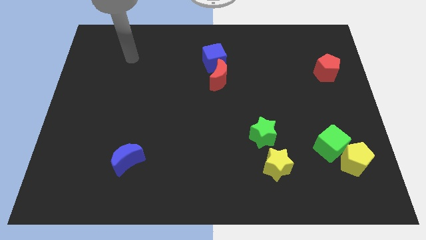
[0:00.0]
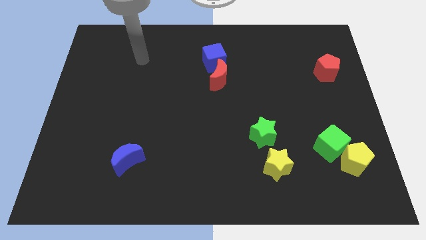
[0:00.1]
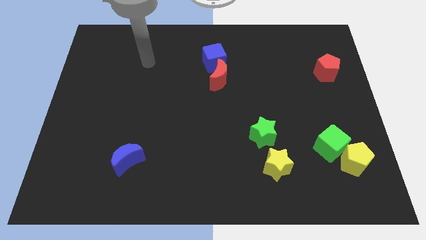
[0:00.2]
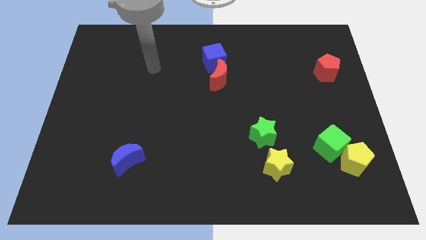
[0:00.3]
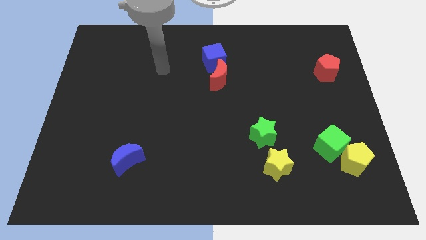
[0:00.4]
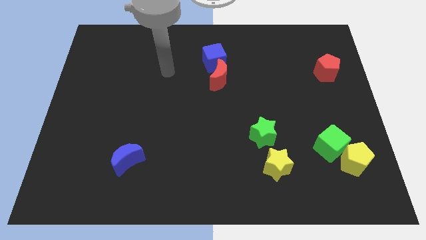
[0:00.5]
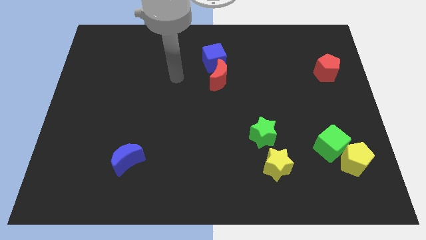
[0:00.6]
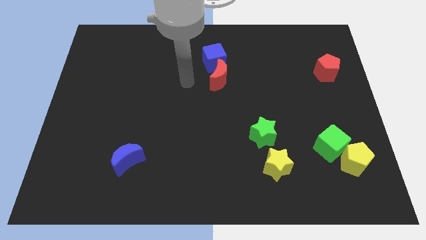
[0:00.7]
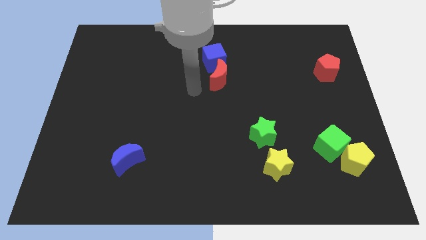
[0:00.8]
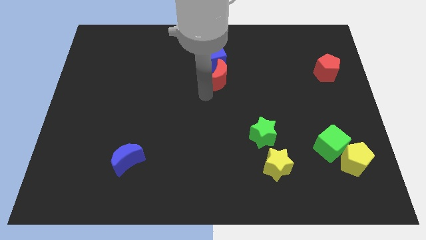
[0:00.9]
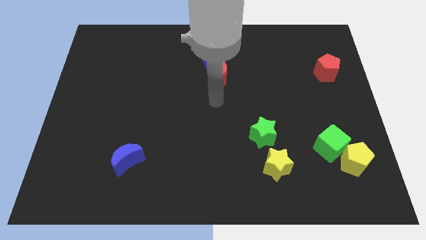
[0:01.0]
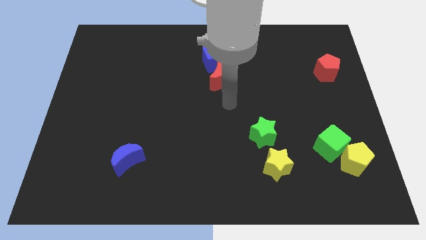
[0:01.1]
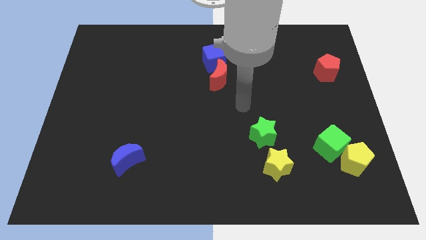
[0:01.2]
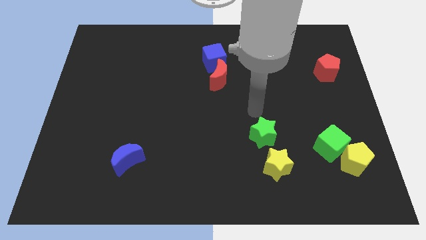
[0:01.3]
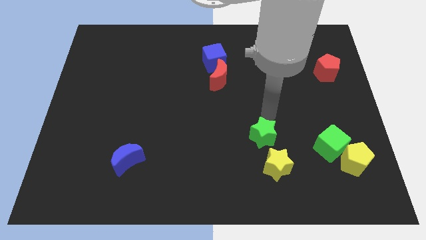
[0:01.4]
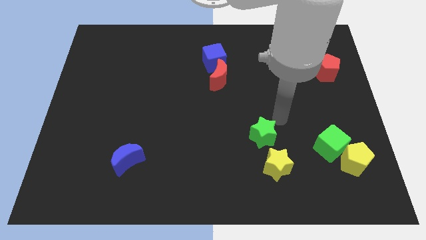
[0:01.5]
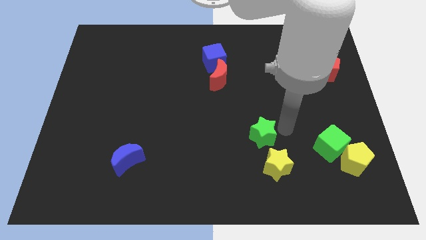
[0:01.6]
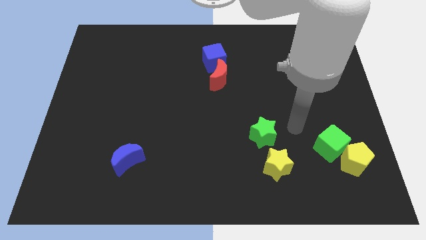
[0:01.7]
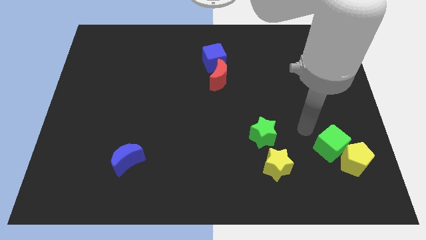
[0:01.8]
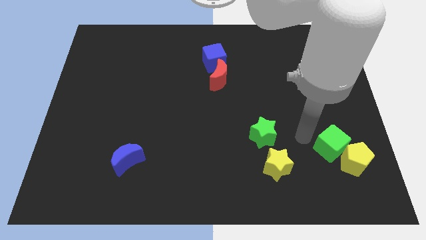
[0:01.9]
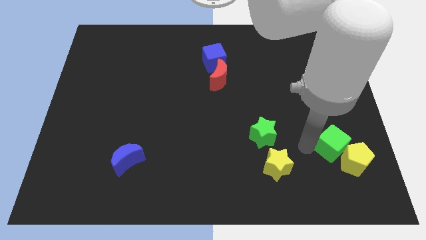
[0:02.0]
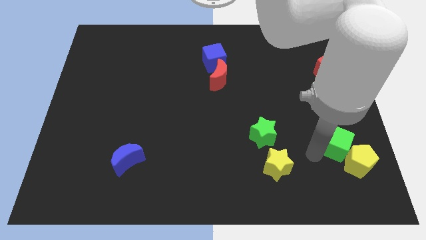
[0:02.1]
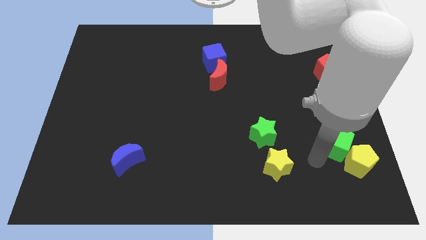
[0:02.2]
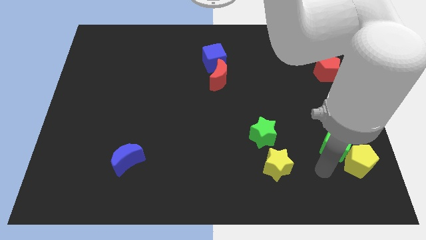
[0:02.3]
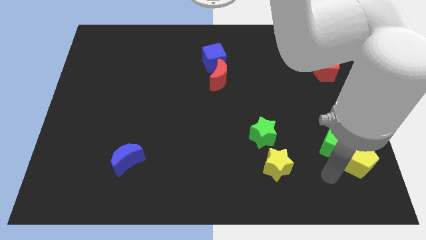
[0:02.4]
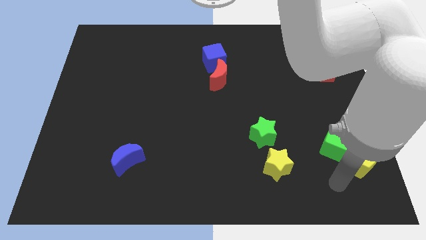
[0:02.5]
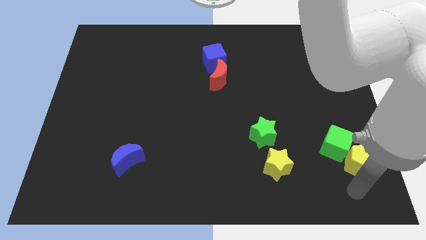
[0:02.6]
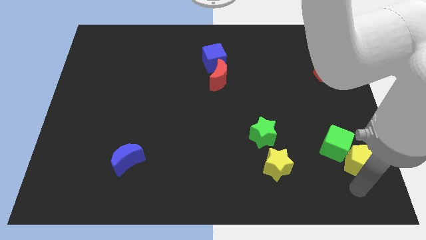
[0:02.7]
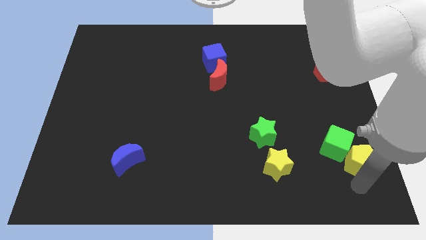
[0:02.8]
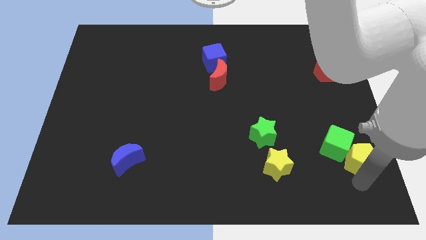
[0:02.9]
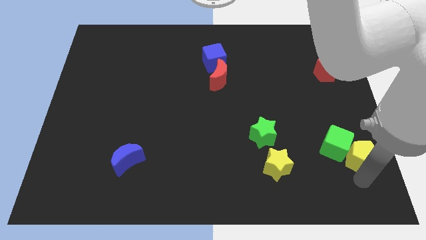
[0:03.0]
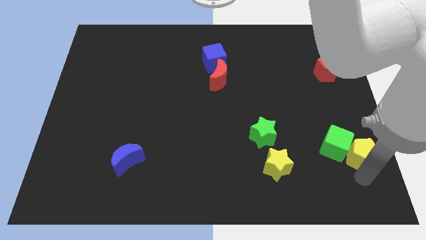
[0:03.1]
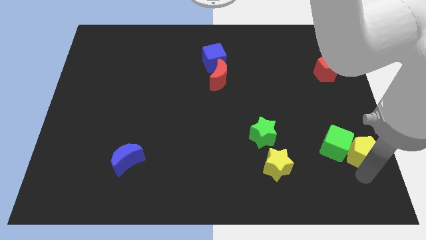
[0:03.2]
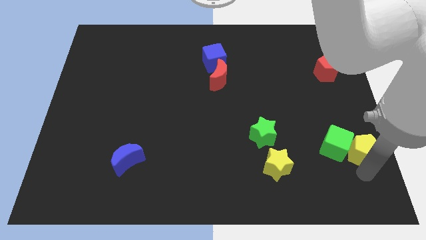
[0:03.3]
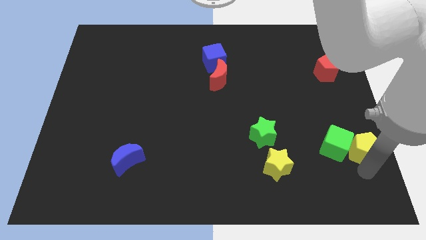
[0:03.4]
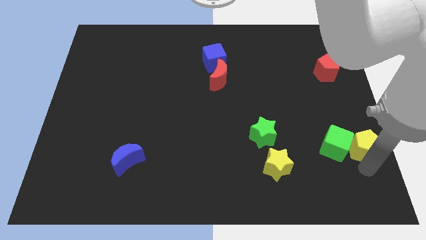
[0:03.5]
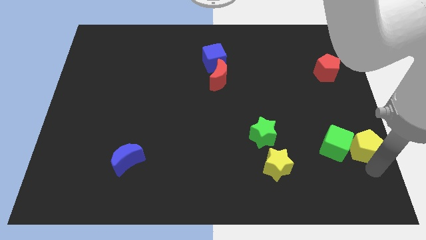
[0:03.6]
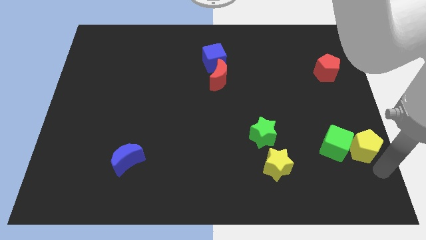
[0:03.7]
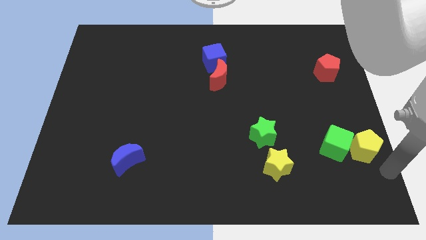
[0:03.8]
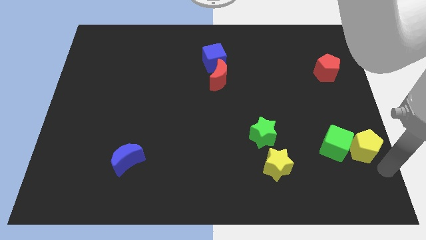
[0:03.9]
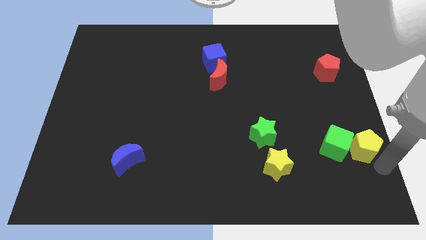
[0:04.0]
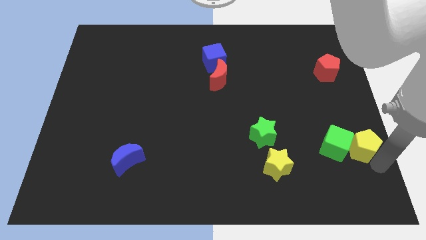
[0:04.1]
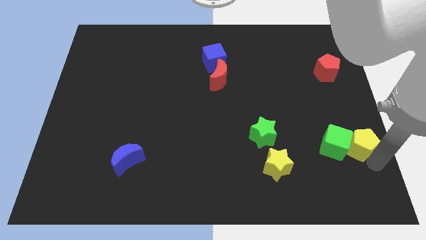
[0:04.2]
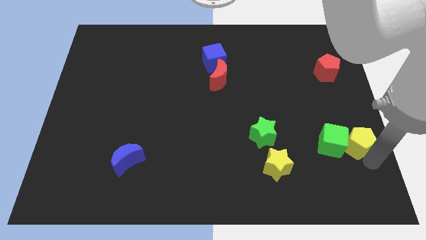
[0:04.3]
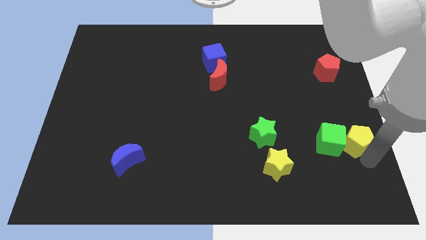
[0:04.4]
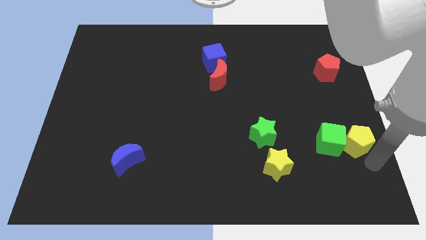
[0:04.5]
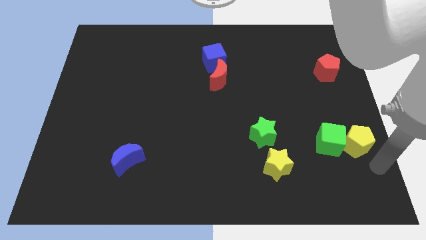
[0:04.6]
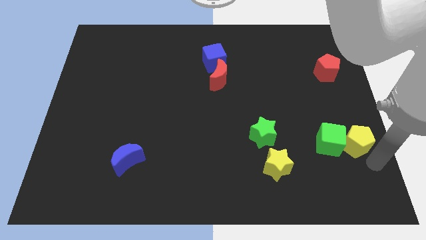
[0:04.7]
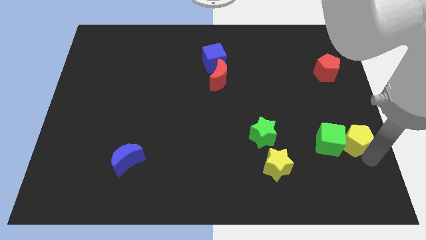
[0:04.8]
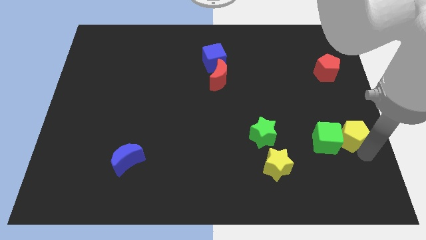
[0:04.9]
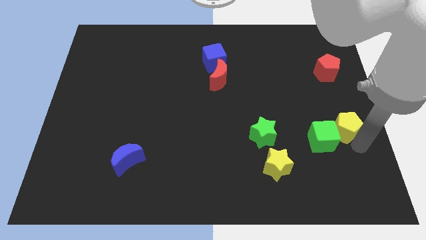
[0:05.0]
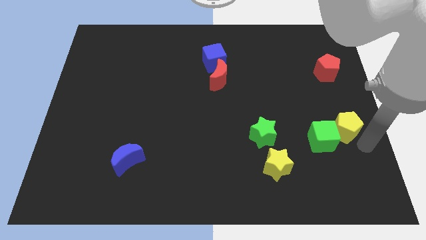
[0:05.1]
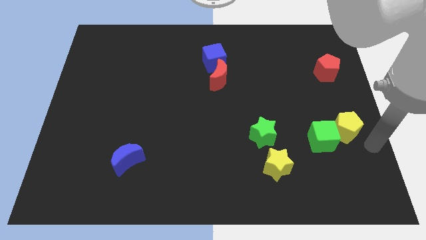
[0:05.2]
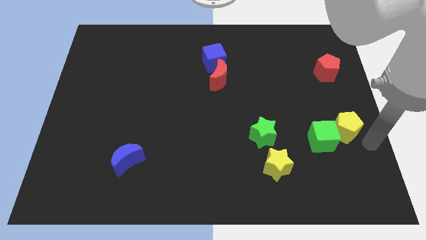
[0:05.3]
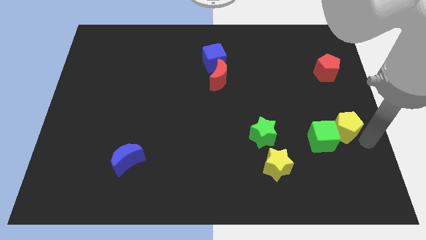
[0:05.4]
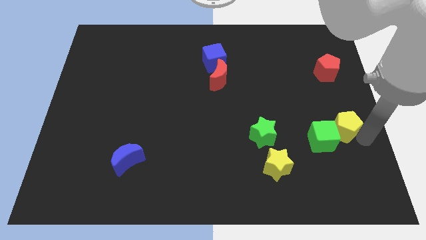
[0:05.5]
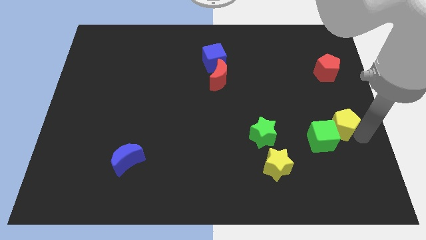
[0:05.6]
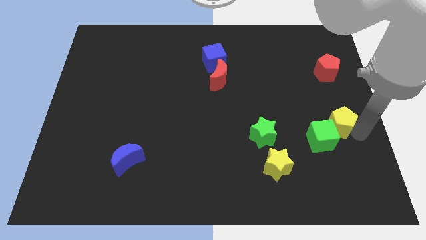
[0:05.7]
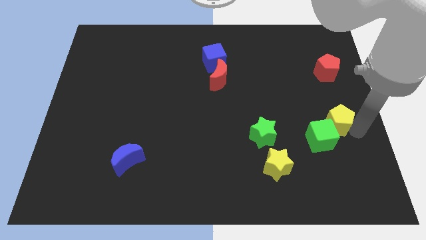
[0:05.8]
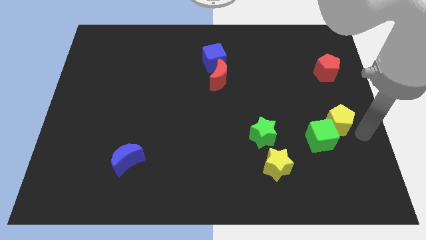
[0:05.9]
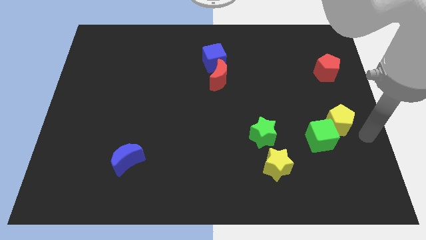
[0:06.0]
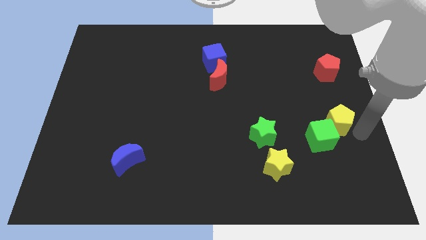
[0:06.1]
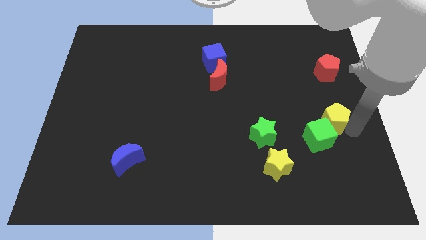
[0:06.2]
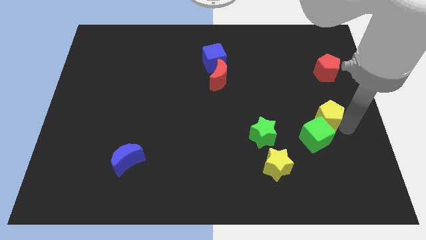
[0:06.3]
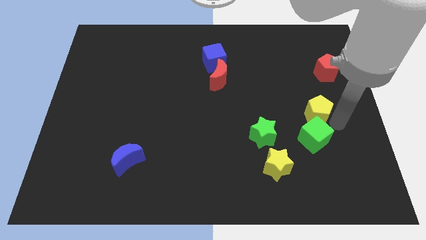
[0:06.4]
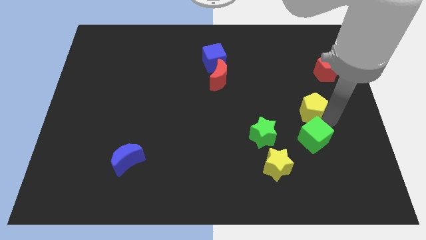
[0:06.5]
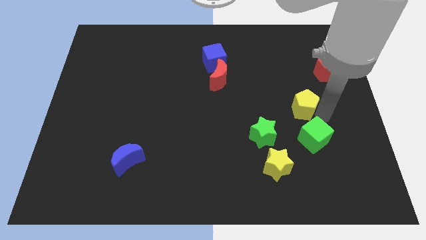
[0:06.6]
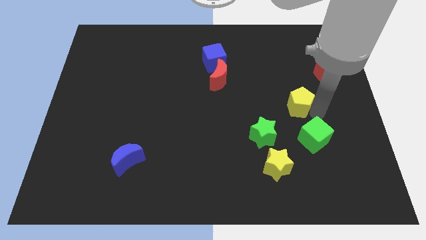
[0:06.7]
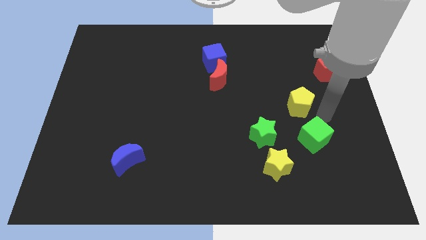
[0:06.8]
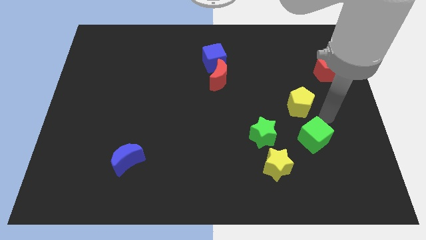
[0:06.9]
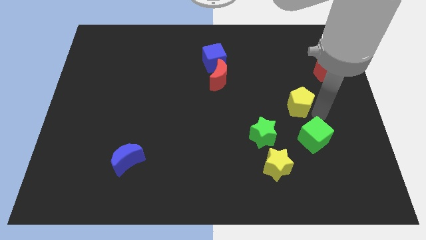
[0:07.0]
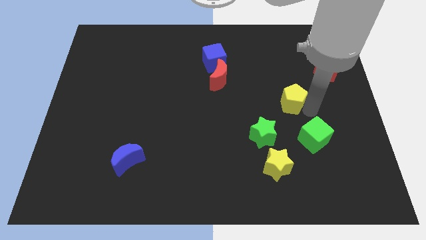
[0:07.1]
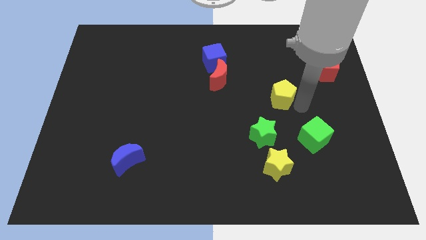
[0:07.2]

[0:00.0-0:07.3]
push the yellow pentagon upwards and to the left

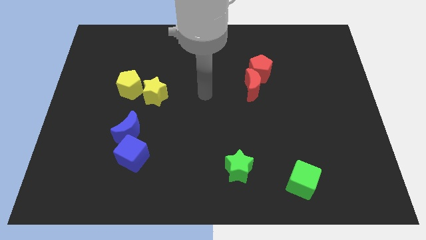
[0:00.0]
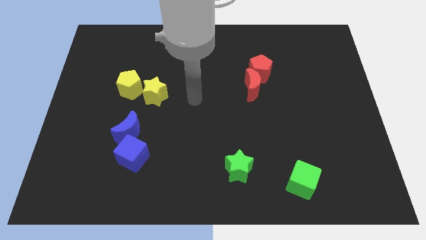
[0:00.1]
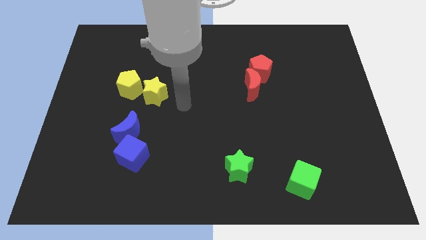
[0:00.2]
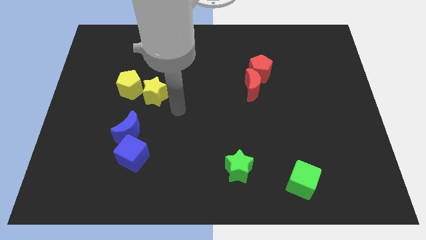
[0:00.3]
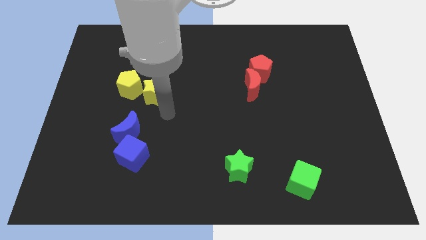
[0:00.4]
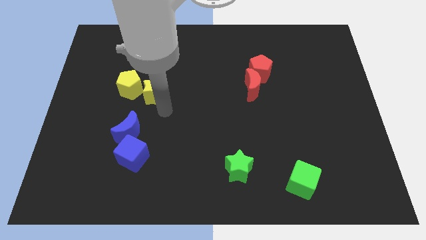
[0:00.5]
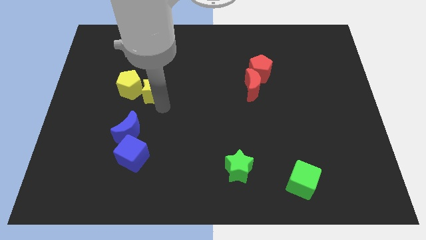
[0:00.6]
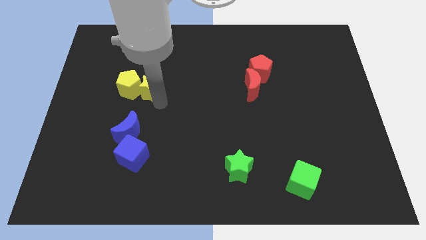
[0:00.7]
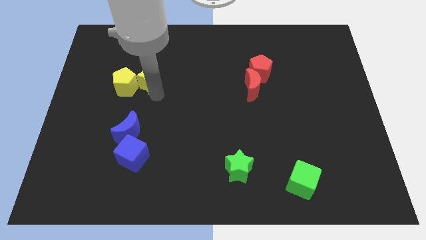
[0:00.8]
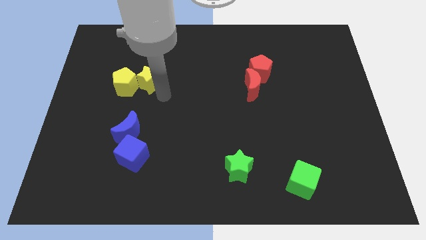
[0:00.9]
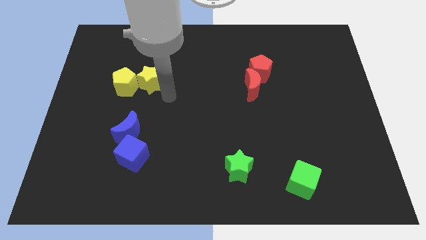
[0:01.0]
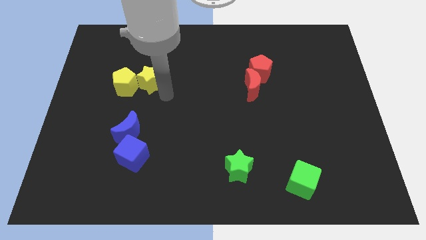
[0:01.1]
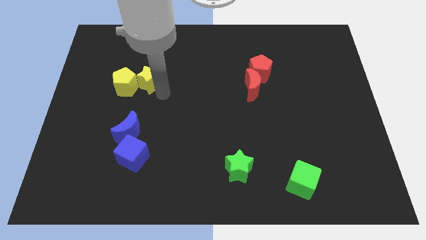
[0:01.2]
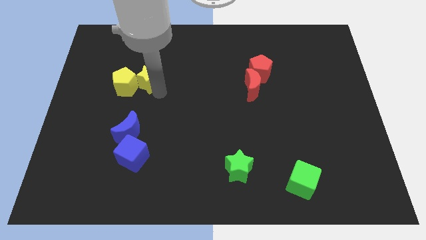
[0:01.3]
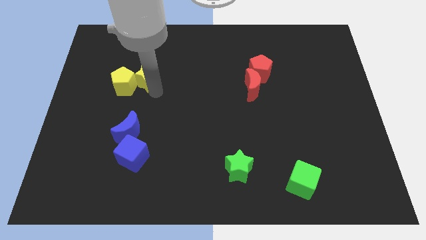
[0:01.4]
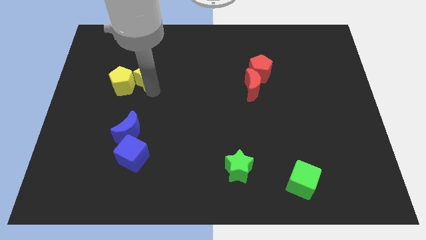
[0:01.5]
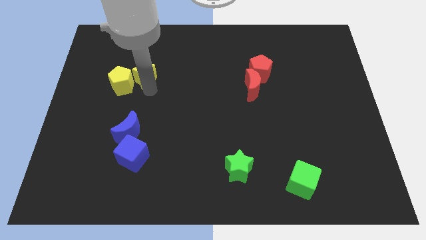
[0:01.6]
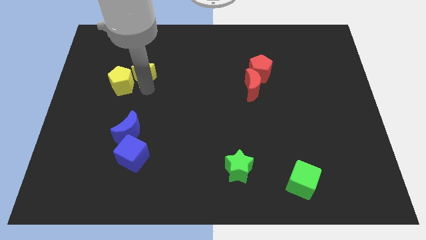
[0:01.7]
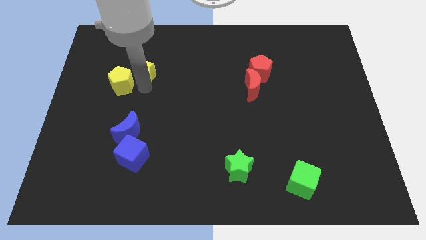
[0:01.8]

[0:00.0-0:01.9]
slightly push the yellow star upwards and to the left
